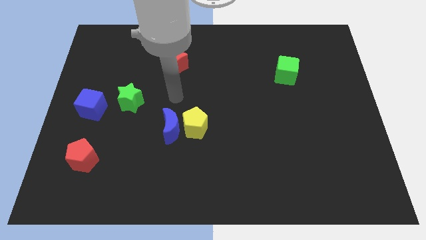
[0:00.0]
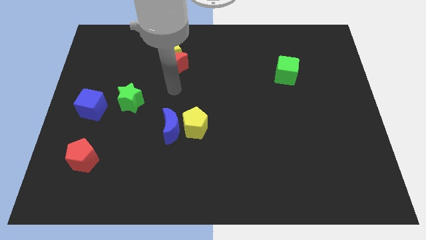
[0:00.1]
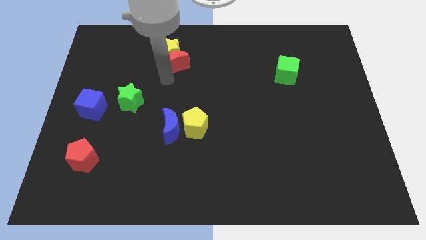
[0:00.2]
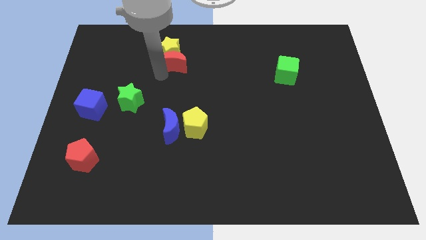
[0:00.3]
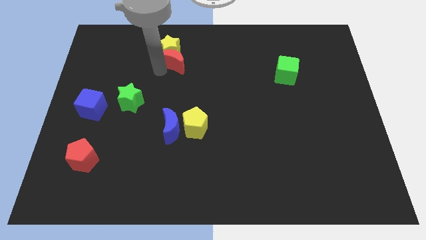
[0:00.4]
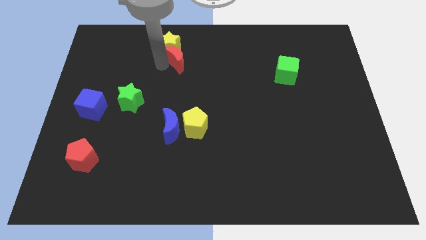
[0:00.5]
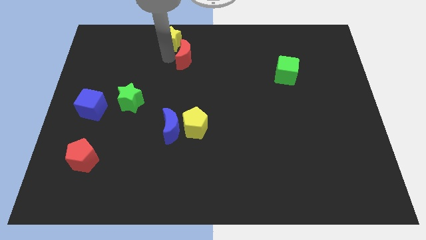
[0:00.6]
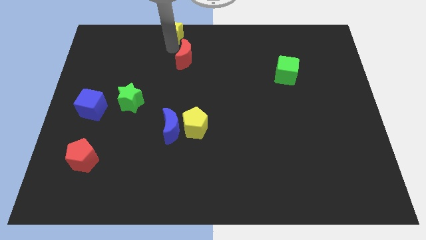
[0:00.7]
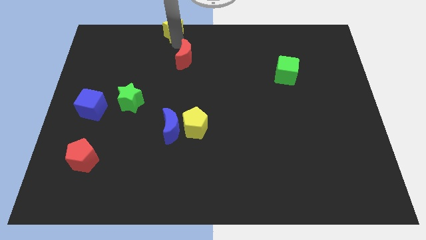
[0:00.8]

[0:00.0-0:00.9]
pull the red moon apart from the yellow star

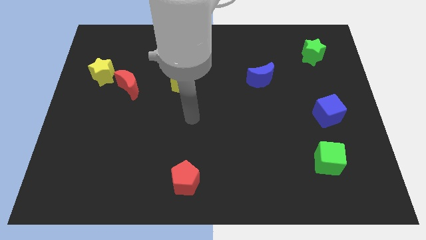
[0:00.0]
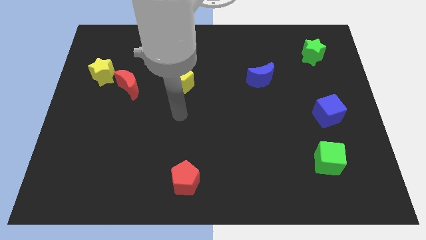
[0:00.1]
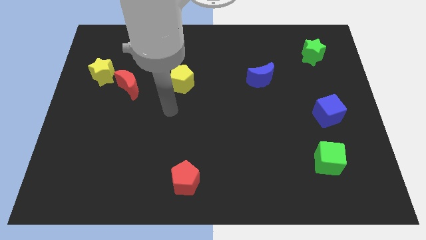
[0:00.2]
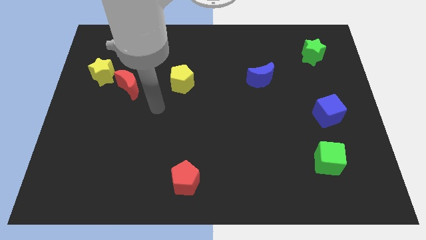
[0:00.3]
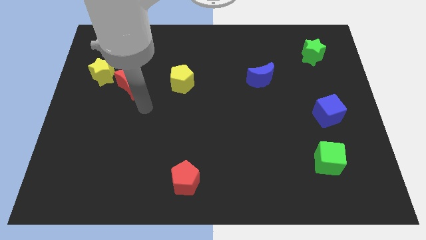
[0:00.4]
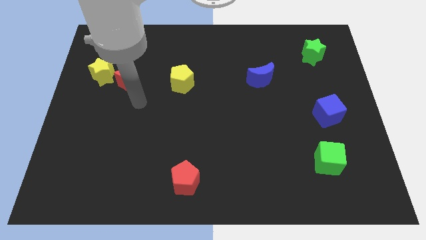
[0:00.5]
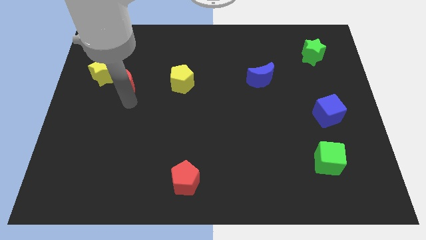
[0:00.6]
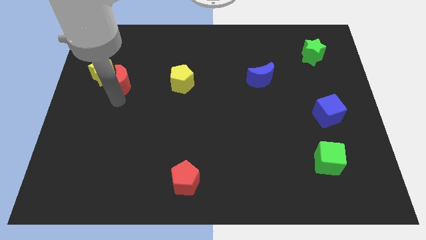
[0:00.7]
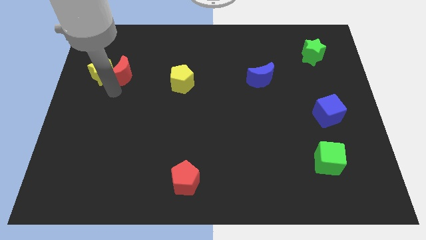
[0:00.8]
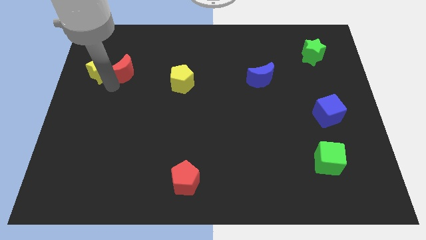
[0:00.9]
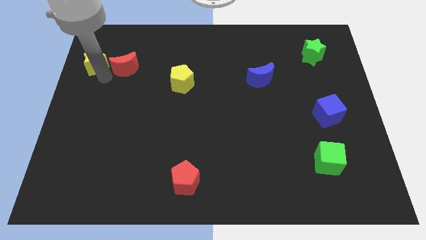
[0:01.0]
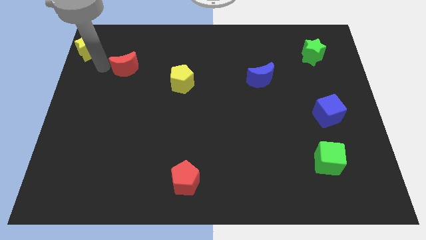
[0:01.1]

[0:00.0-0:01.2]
move the red moon away from the yellow star

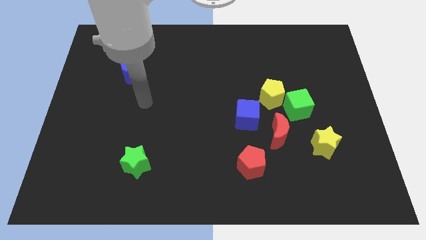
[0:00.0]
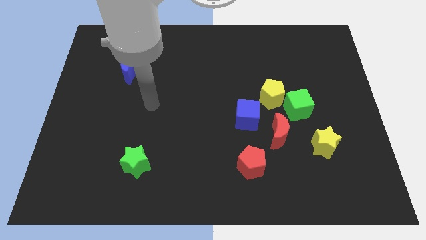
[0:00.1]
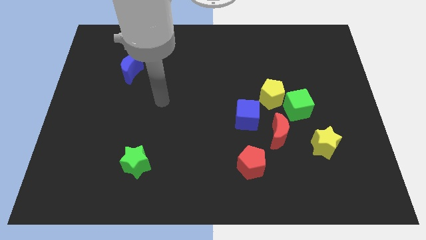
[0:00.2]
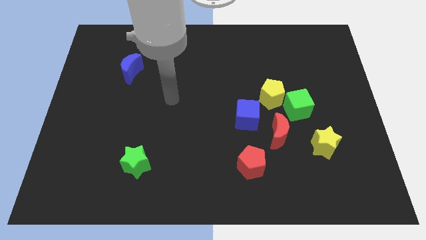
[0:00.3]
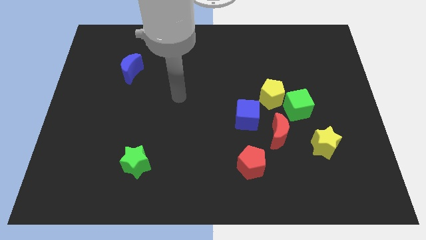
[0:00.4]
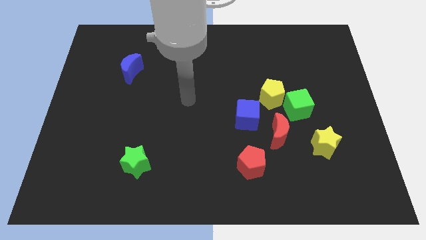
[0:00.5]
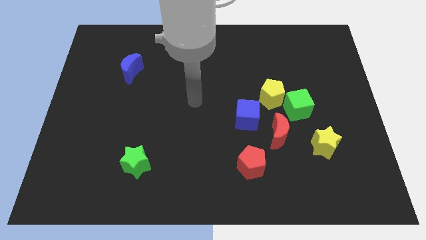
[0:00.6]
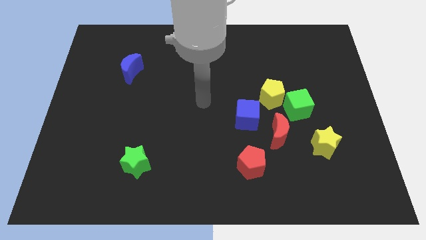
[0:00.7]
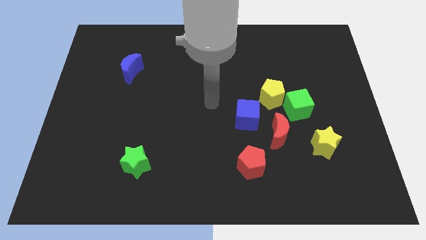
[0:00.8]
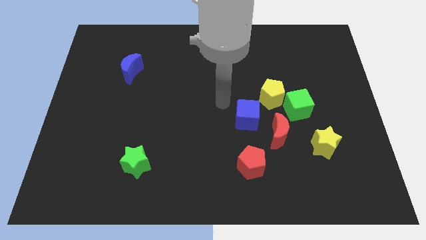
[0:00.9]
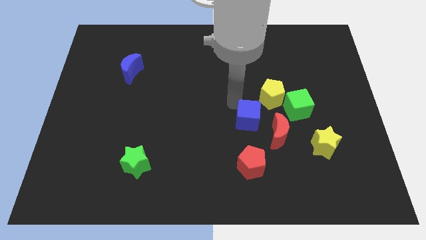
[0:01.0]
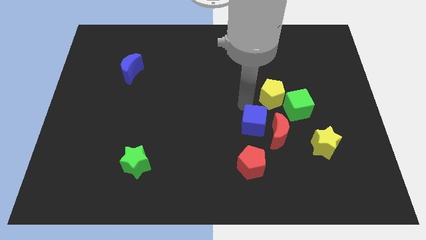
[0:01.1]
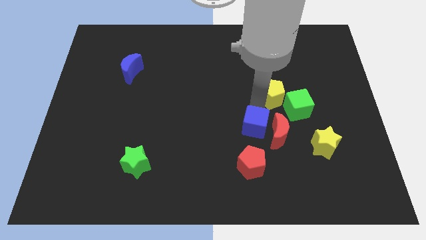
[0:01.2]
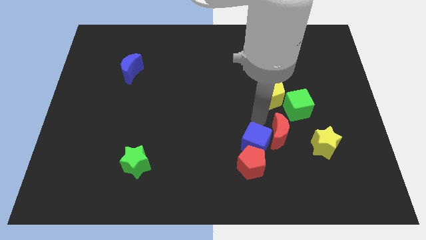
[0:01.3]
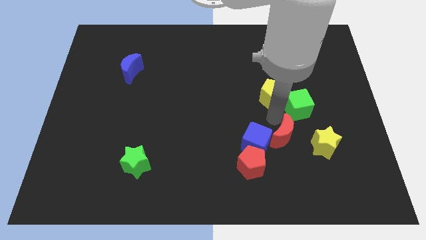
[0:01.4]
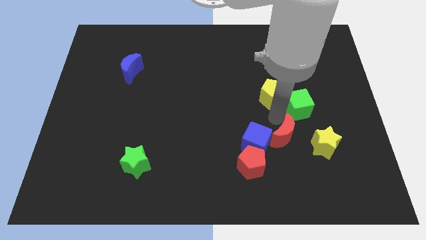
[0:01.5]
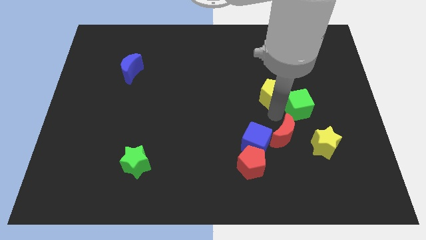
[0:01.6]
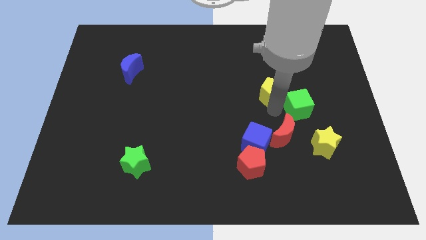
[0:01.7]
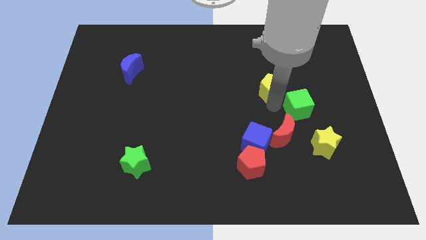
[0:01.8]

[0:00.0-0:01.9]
separate the yellow pentagon from the green cube and blue cube

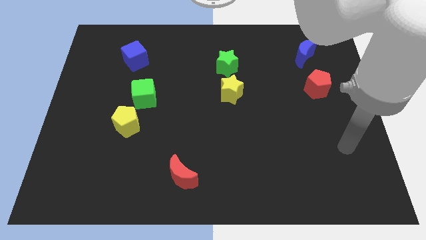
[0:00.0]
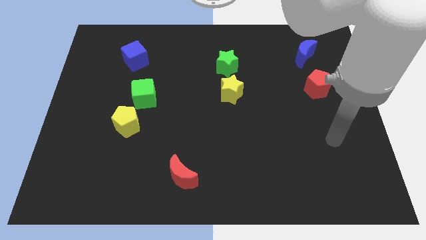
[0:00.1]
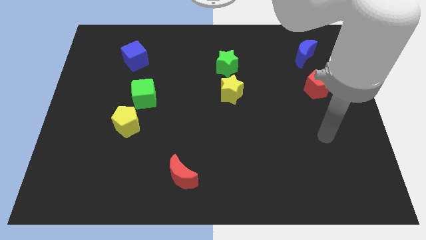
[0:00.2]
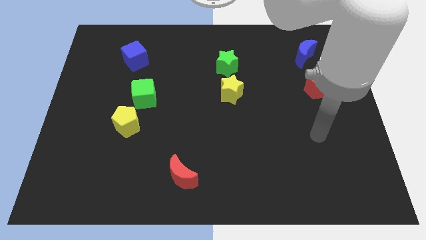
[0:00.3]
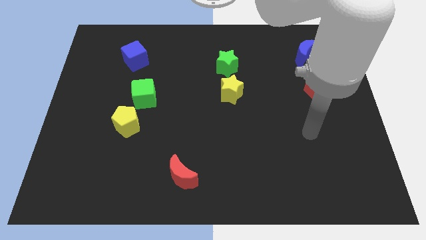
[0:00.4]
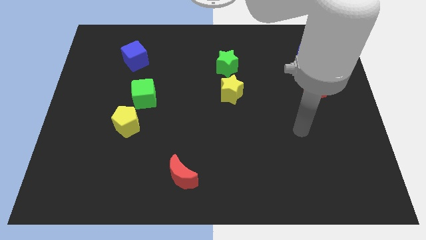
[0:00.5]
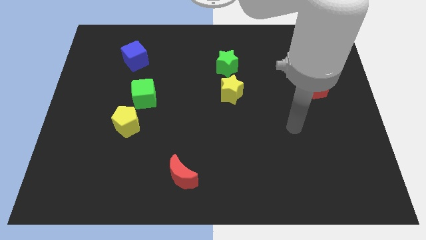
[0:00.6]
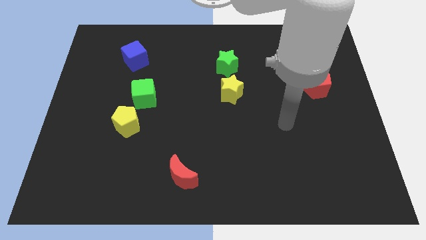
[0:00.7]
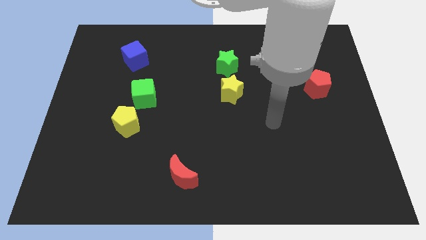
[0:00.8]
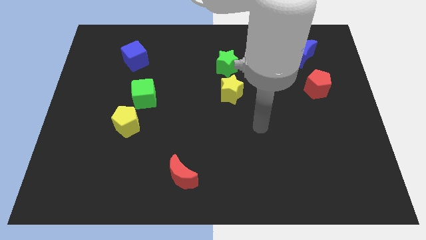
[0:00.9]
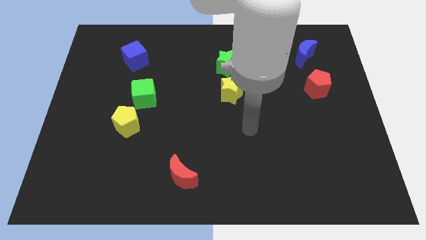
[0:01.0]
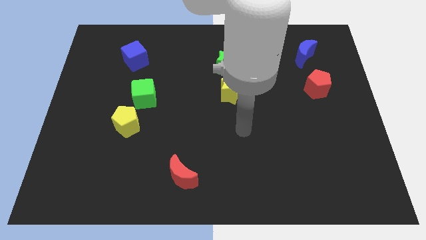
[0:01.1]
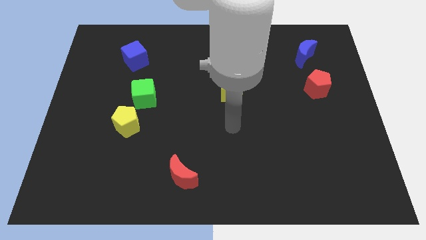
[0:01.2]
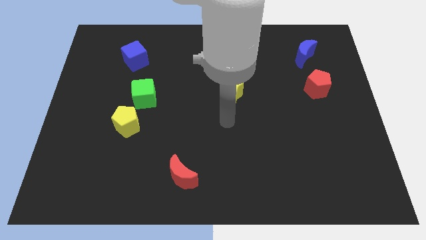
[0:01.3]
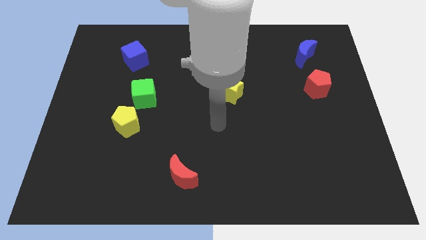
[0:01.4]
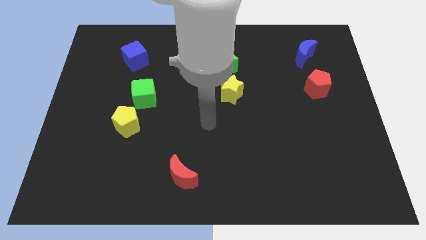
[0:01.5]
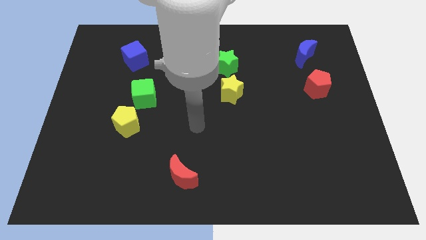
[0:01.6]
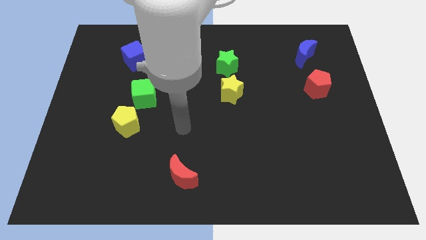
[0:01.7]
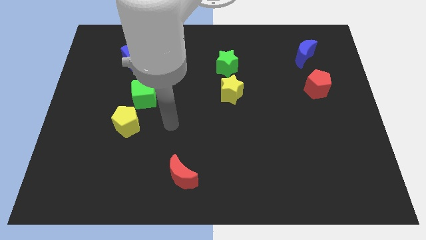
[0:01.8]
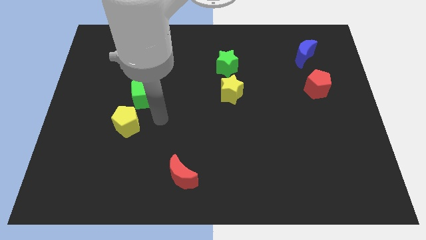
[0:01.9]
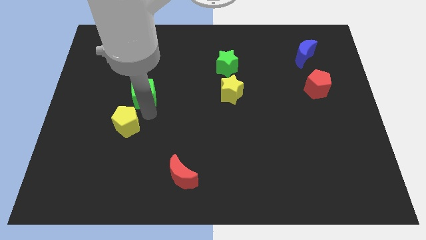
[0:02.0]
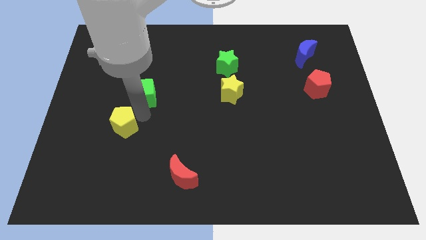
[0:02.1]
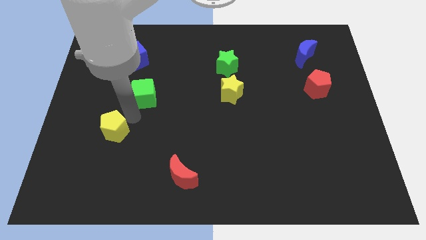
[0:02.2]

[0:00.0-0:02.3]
separate the green cube from the yellow pentagon

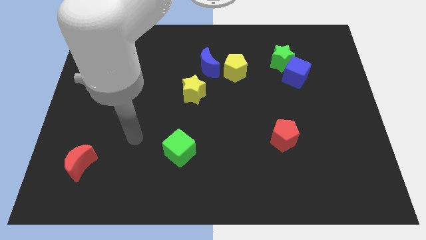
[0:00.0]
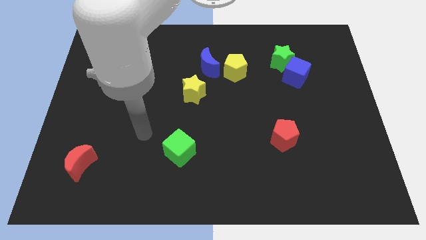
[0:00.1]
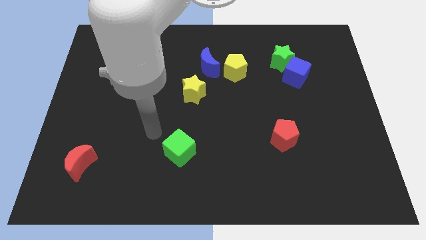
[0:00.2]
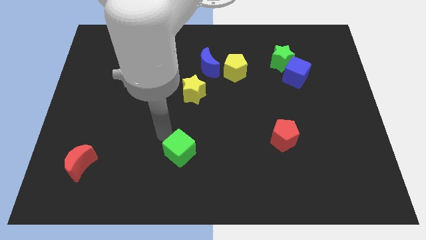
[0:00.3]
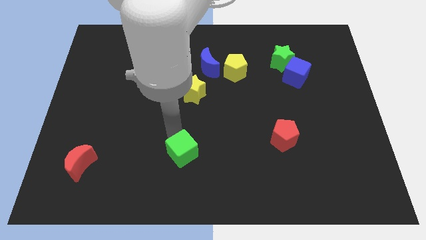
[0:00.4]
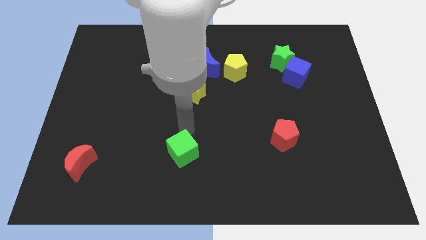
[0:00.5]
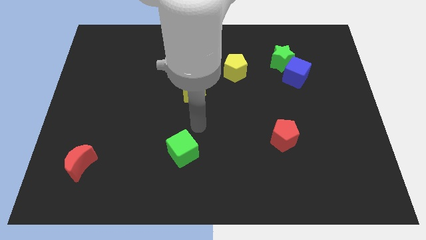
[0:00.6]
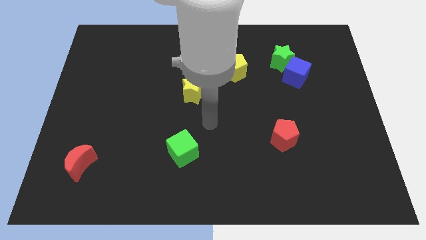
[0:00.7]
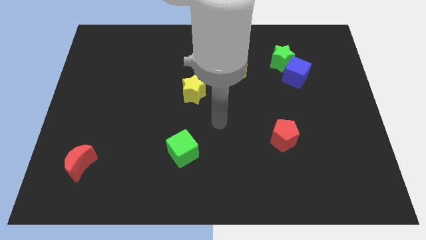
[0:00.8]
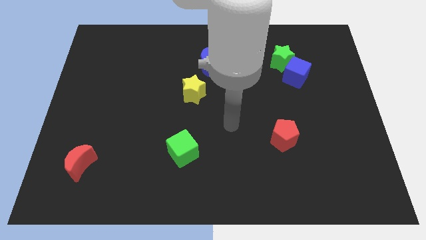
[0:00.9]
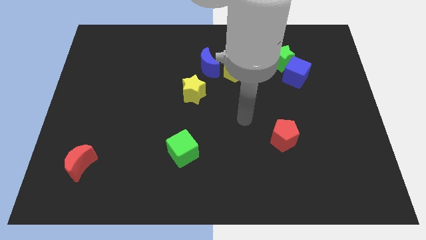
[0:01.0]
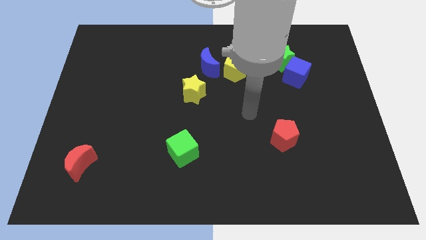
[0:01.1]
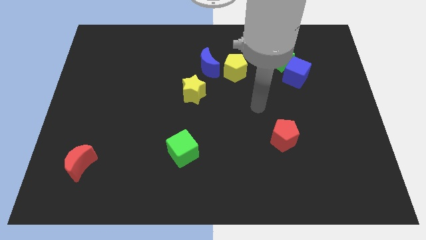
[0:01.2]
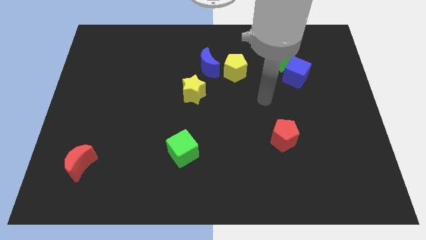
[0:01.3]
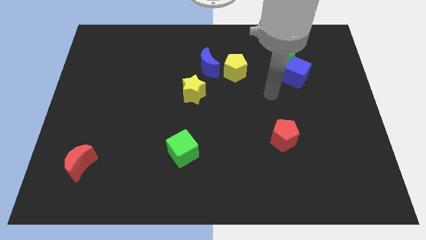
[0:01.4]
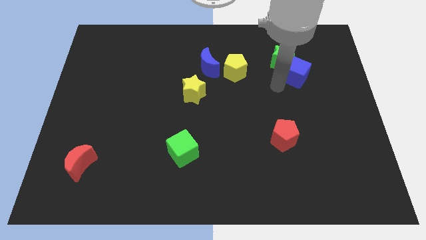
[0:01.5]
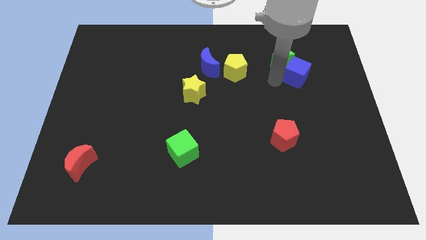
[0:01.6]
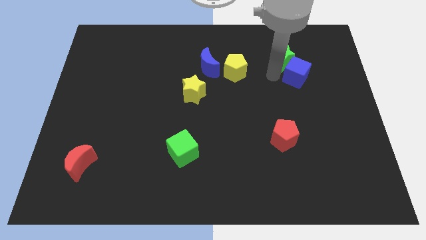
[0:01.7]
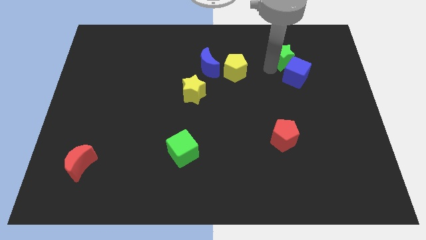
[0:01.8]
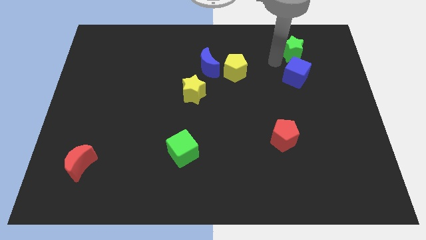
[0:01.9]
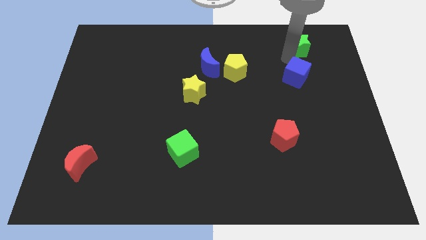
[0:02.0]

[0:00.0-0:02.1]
separate the blue cube from the green star

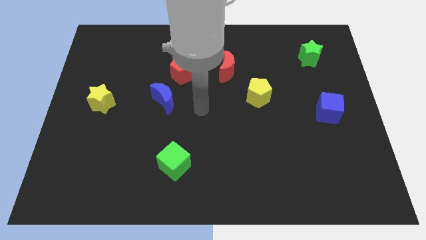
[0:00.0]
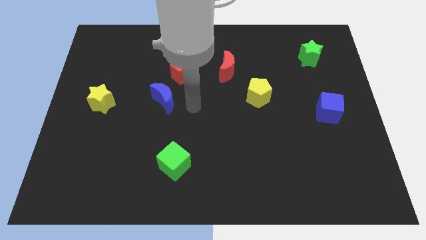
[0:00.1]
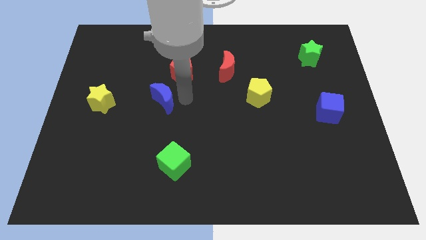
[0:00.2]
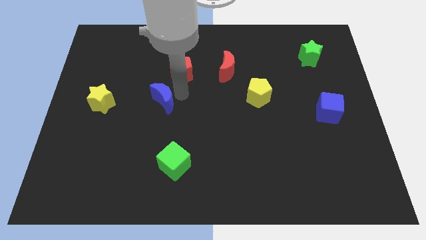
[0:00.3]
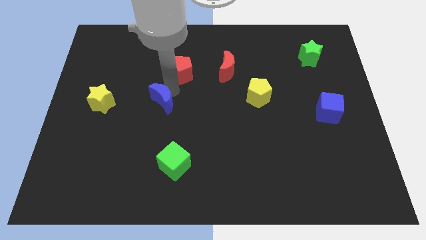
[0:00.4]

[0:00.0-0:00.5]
pull the red pentagon apart from the blue moon

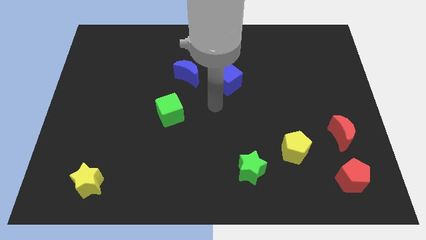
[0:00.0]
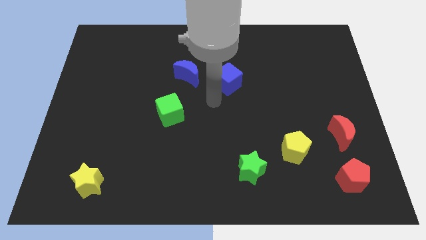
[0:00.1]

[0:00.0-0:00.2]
separate the blue moon from the blue cube
